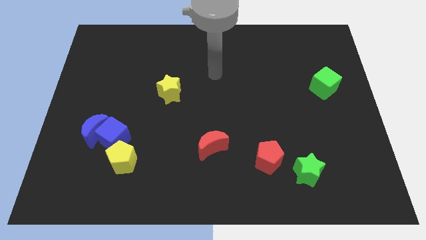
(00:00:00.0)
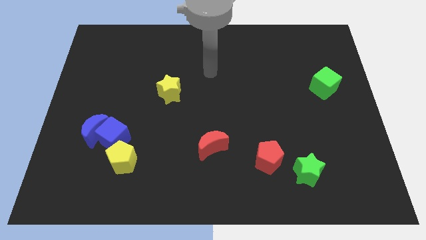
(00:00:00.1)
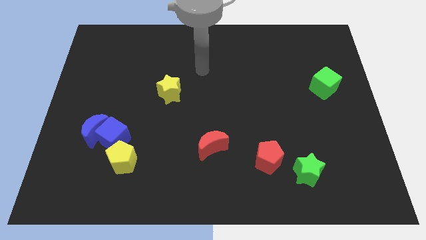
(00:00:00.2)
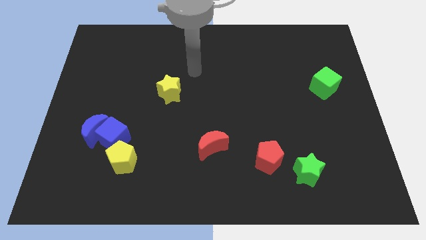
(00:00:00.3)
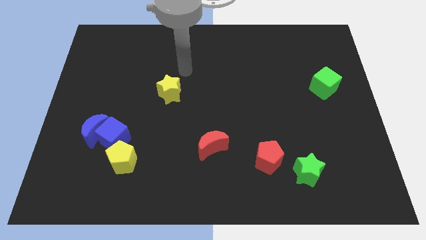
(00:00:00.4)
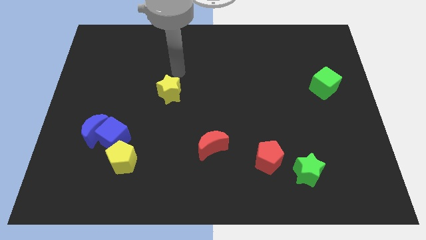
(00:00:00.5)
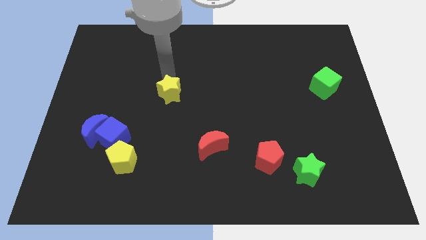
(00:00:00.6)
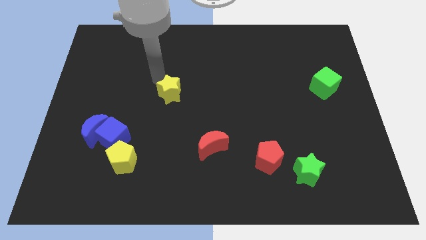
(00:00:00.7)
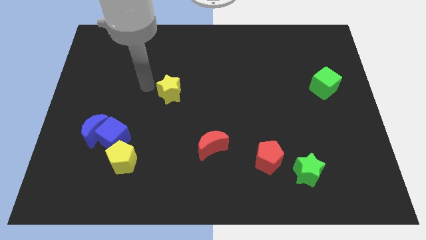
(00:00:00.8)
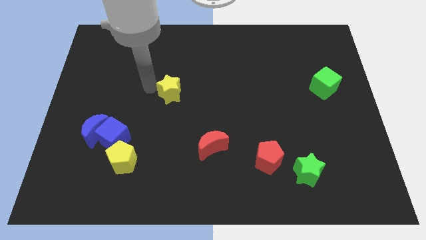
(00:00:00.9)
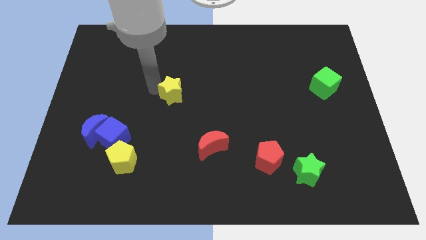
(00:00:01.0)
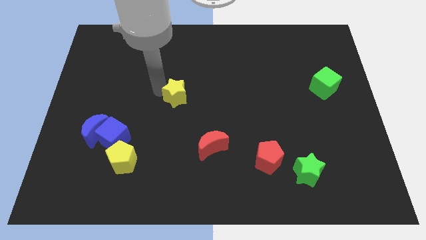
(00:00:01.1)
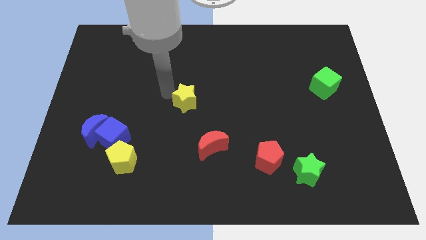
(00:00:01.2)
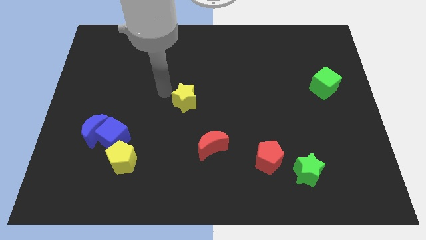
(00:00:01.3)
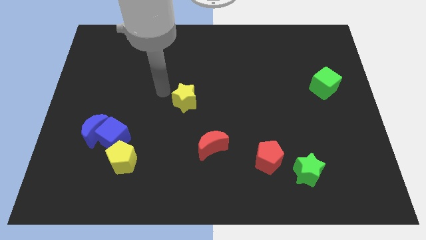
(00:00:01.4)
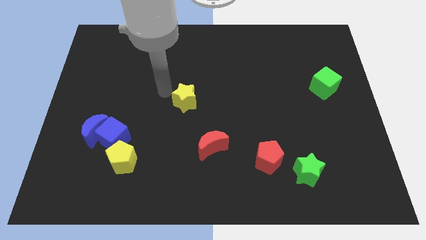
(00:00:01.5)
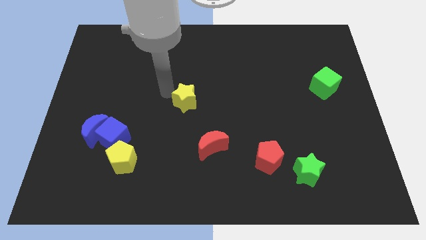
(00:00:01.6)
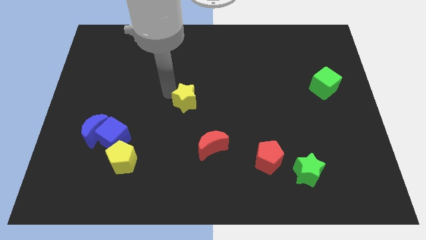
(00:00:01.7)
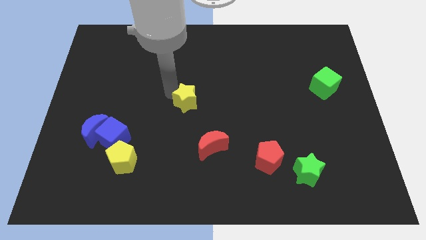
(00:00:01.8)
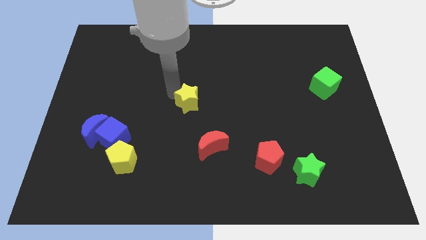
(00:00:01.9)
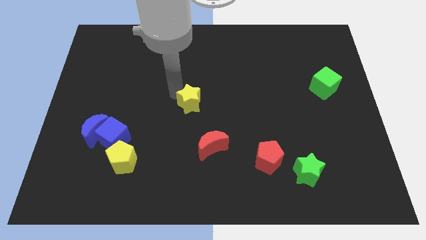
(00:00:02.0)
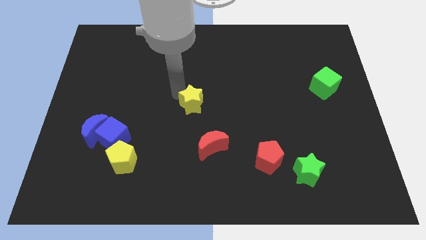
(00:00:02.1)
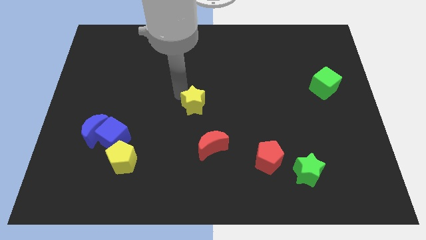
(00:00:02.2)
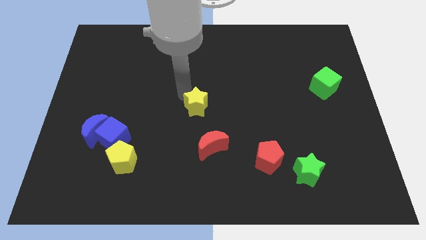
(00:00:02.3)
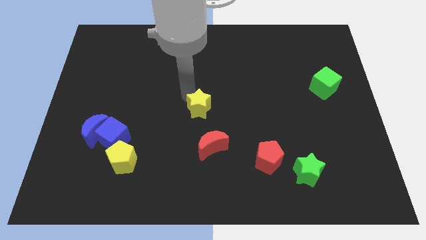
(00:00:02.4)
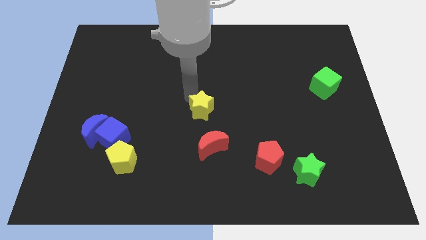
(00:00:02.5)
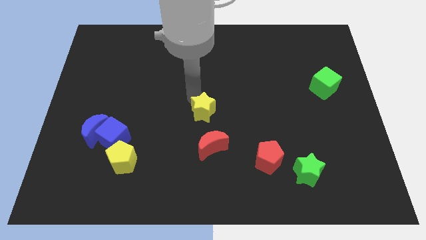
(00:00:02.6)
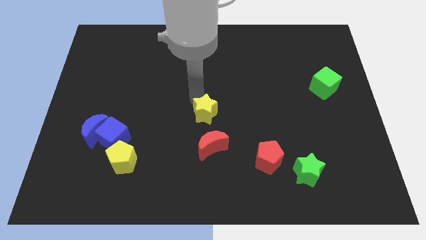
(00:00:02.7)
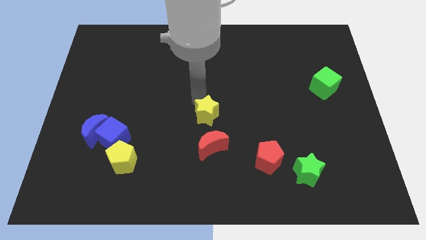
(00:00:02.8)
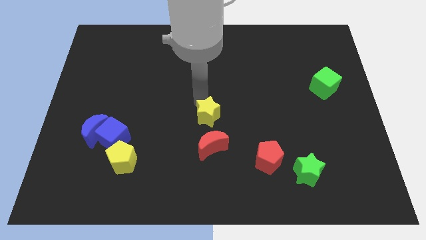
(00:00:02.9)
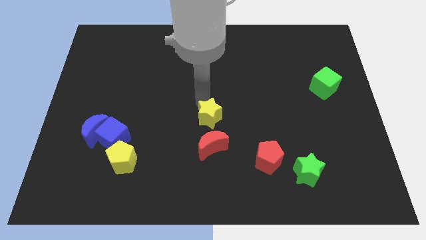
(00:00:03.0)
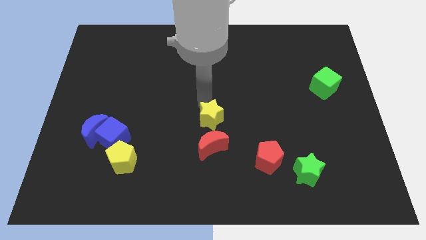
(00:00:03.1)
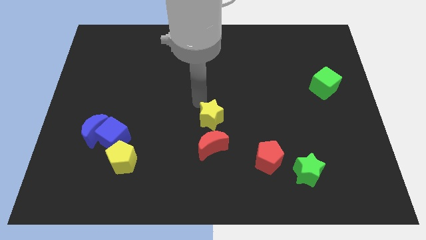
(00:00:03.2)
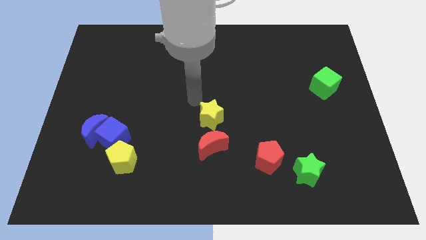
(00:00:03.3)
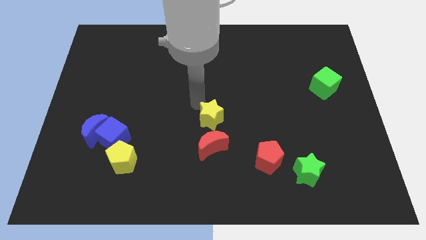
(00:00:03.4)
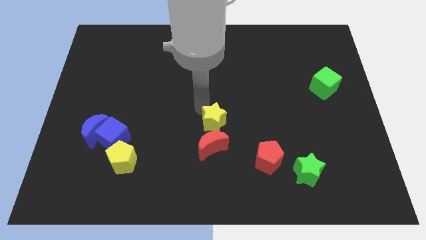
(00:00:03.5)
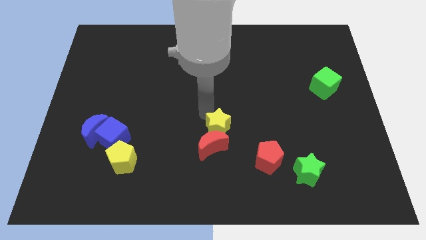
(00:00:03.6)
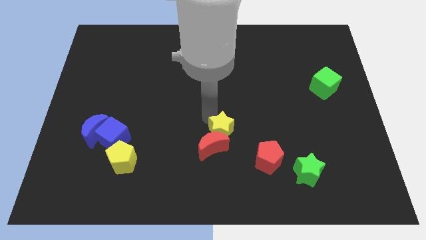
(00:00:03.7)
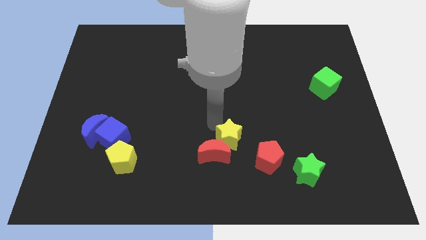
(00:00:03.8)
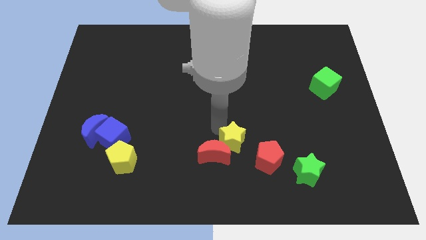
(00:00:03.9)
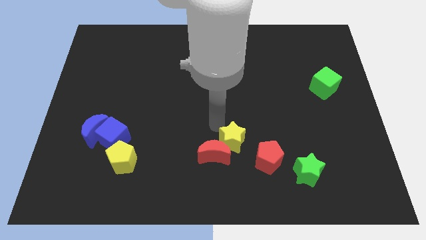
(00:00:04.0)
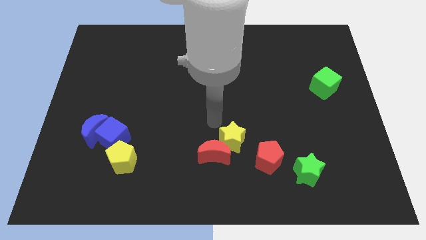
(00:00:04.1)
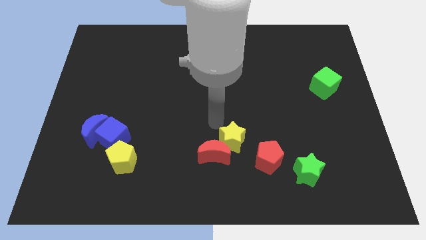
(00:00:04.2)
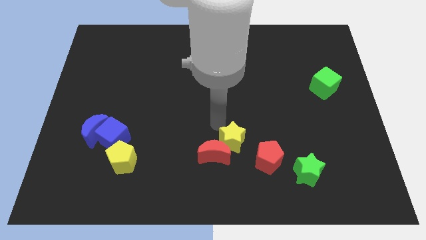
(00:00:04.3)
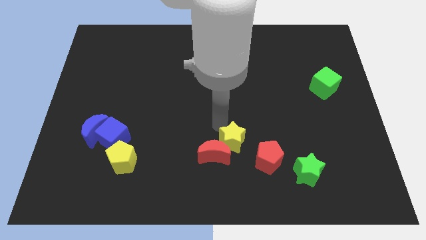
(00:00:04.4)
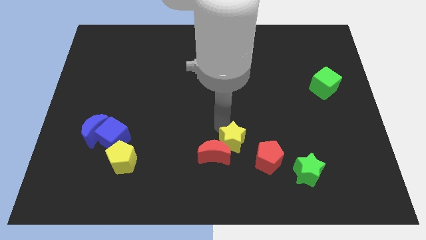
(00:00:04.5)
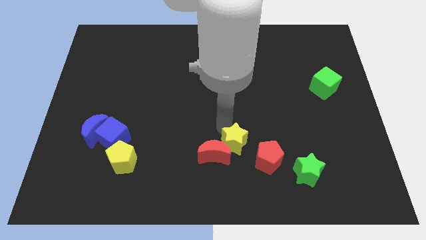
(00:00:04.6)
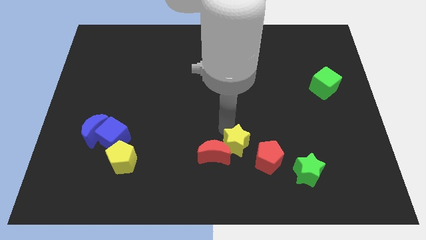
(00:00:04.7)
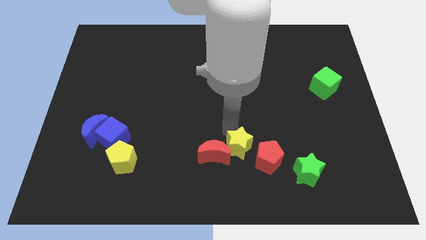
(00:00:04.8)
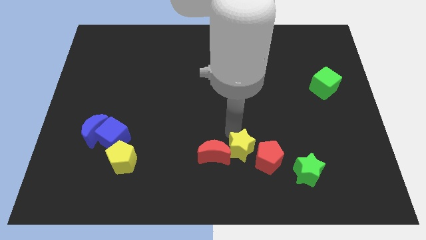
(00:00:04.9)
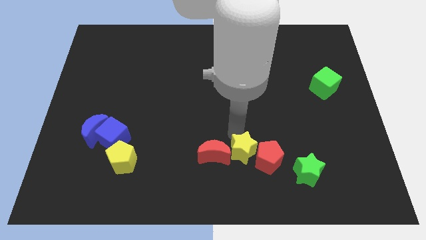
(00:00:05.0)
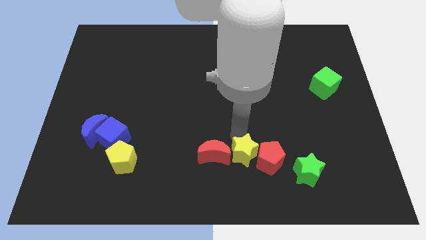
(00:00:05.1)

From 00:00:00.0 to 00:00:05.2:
move the yellow star left of the green star

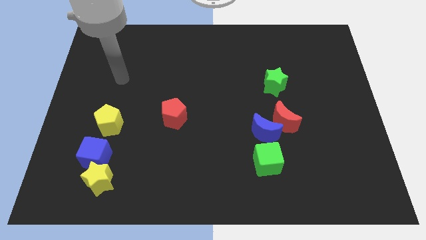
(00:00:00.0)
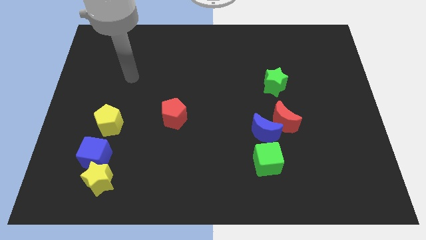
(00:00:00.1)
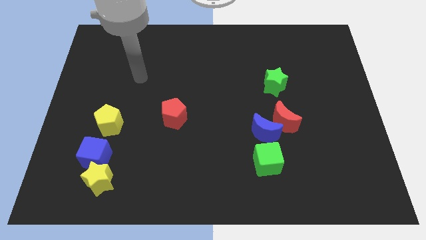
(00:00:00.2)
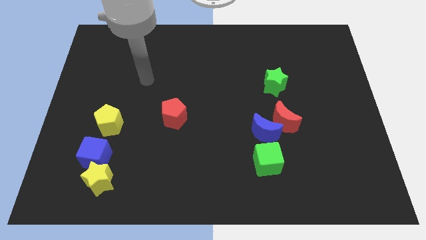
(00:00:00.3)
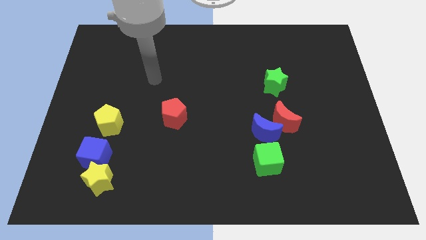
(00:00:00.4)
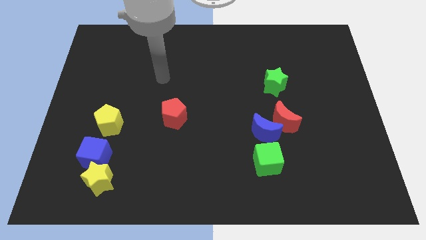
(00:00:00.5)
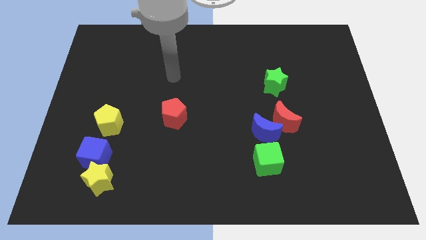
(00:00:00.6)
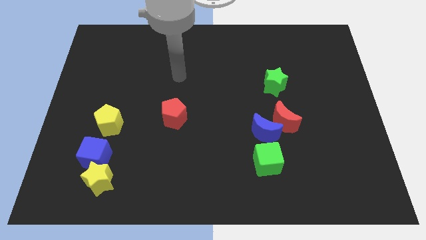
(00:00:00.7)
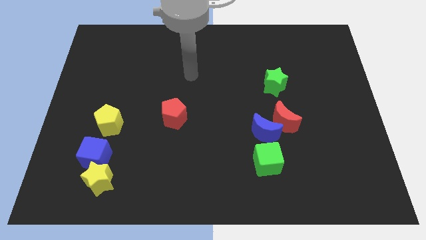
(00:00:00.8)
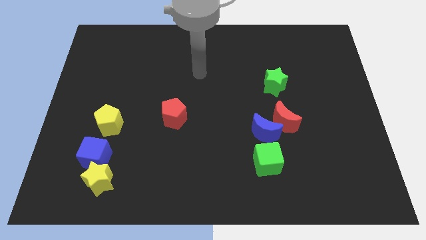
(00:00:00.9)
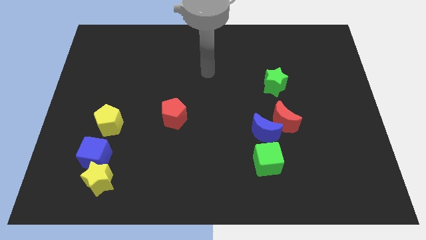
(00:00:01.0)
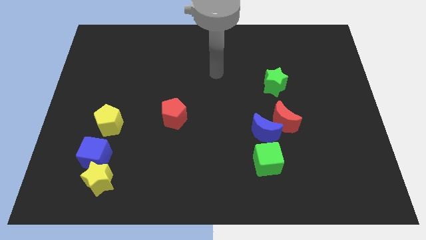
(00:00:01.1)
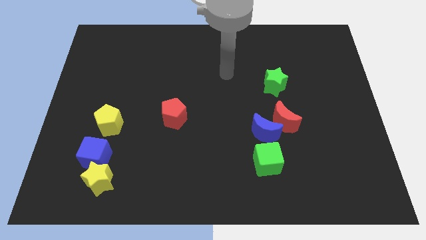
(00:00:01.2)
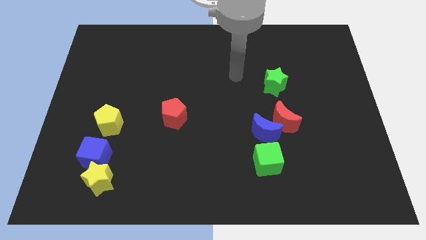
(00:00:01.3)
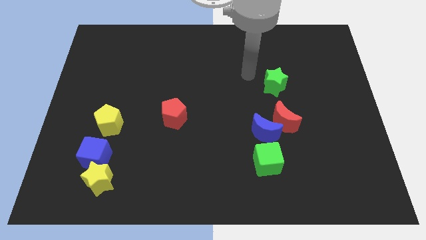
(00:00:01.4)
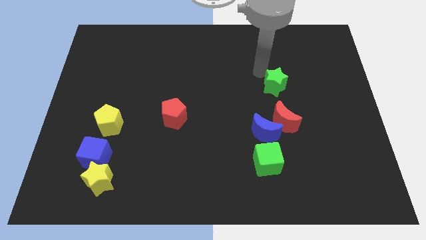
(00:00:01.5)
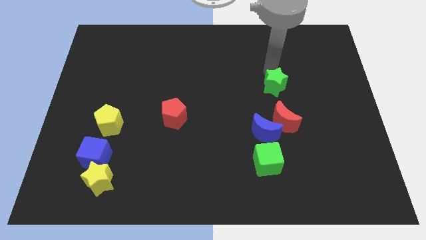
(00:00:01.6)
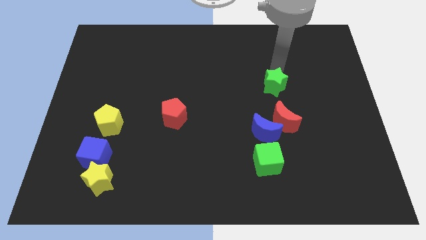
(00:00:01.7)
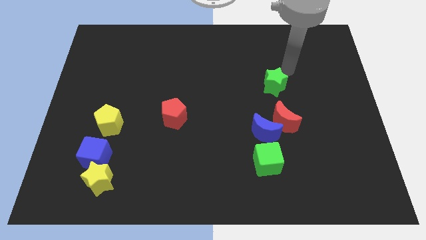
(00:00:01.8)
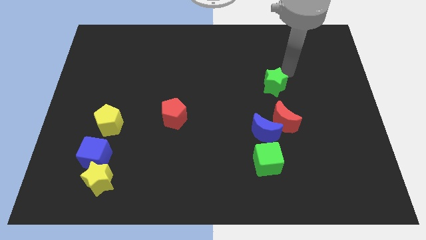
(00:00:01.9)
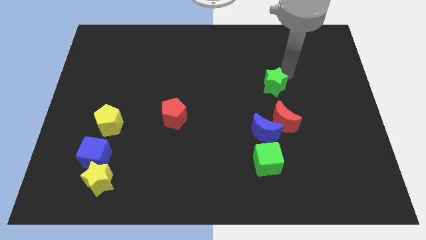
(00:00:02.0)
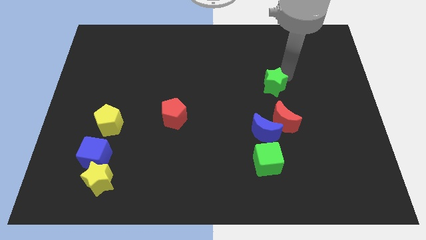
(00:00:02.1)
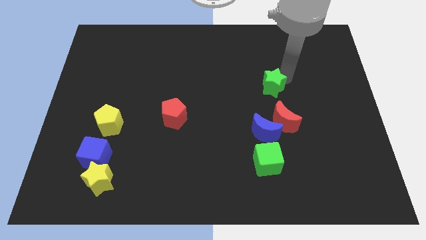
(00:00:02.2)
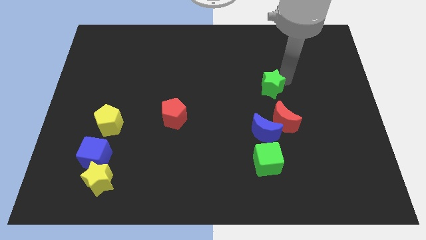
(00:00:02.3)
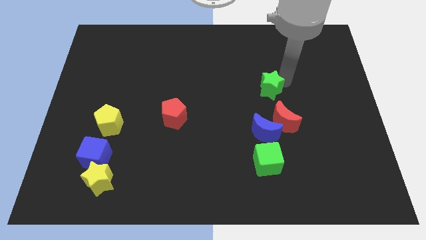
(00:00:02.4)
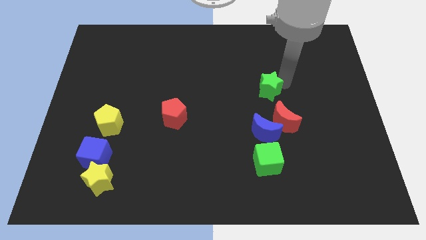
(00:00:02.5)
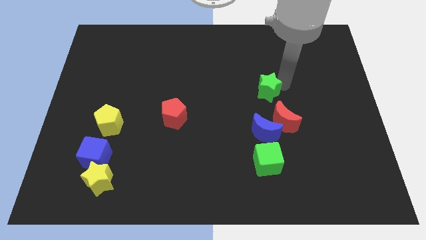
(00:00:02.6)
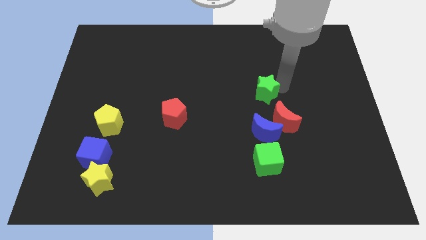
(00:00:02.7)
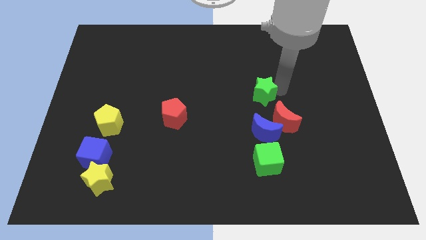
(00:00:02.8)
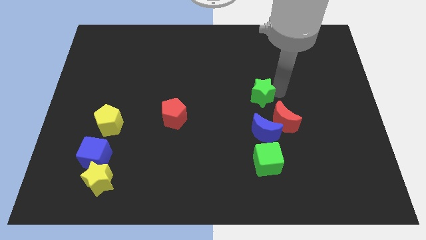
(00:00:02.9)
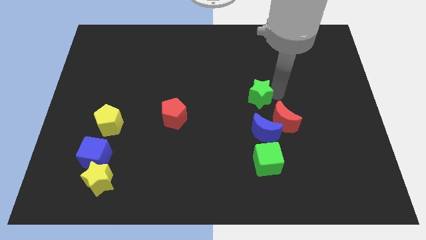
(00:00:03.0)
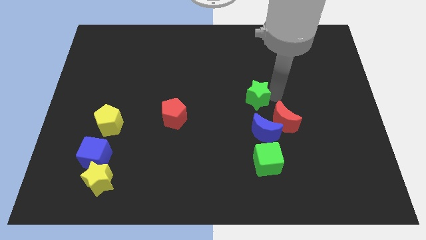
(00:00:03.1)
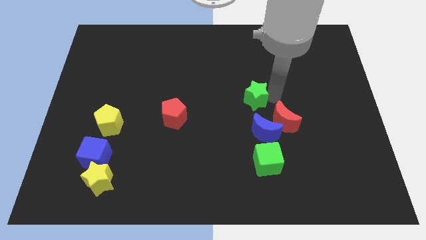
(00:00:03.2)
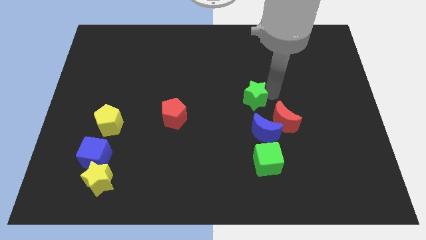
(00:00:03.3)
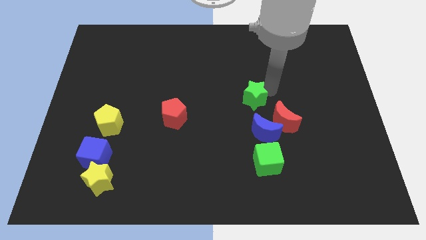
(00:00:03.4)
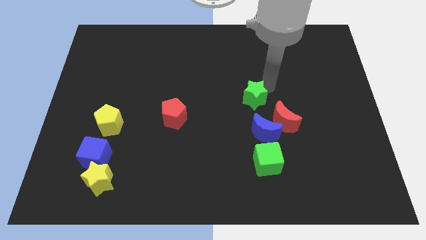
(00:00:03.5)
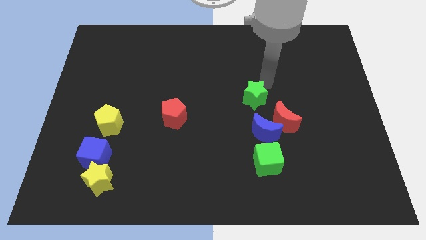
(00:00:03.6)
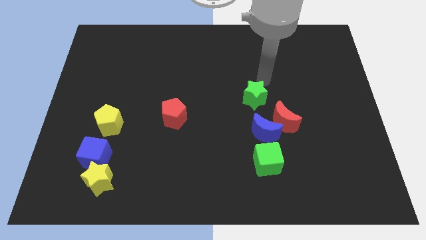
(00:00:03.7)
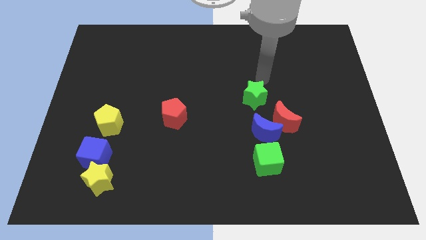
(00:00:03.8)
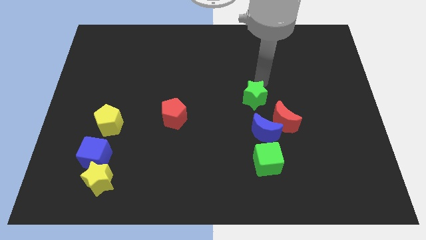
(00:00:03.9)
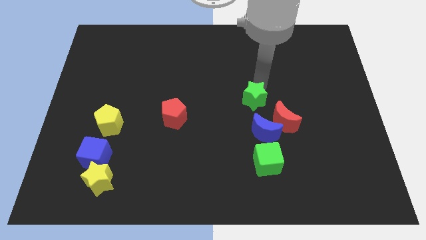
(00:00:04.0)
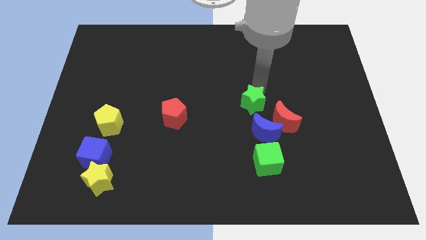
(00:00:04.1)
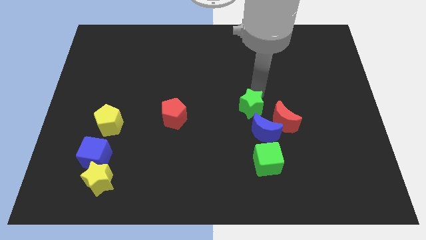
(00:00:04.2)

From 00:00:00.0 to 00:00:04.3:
push the green star to the left side of the red moon
